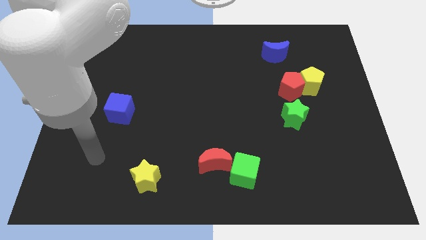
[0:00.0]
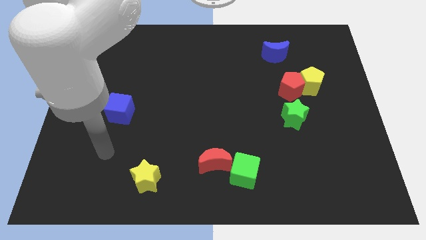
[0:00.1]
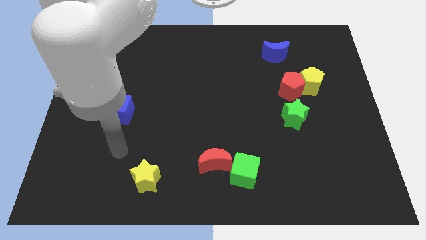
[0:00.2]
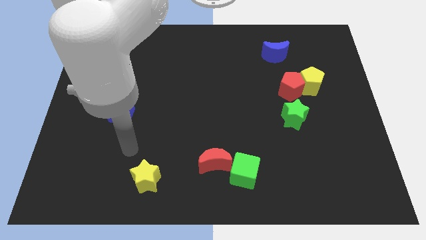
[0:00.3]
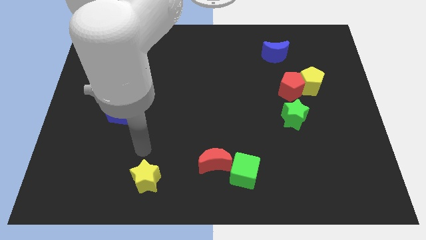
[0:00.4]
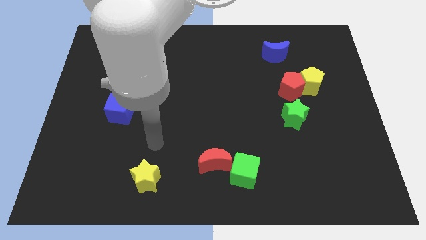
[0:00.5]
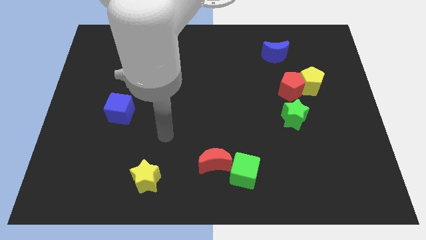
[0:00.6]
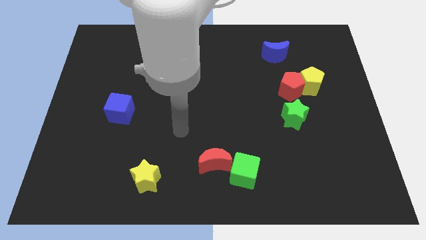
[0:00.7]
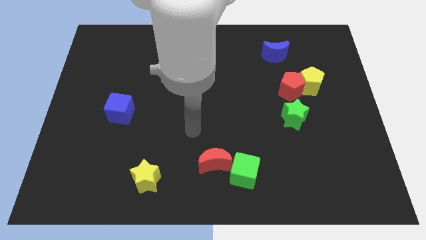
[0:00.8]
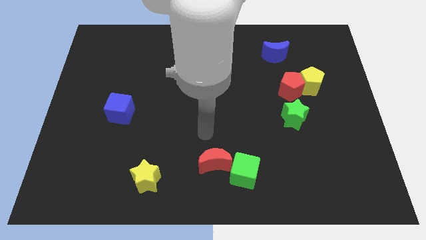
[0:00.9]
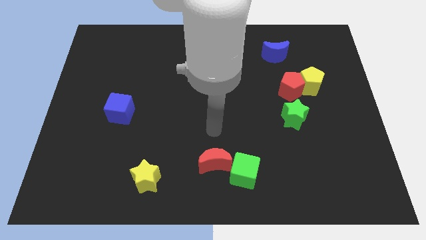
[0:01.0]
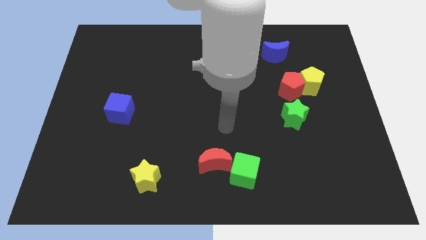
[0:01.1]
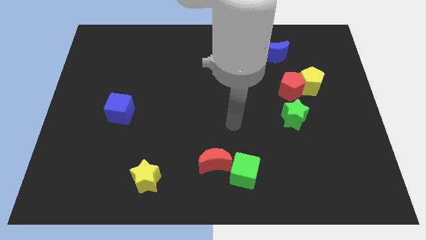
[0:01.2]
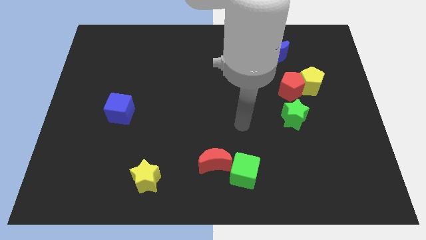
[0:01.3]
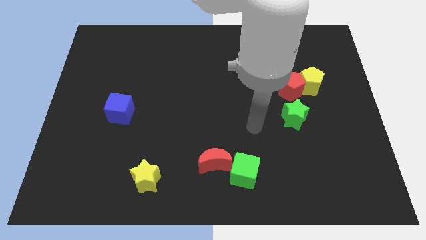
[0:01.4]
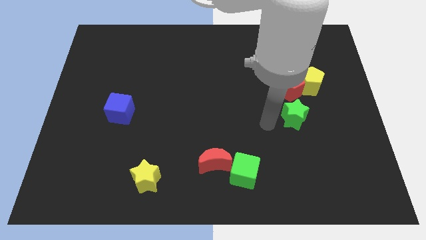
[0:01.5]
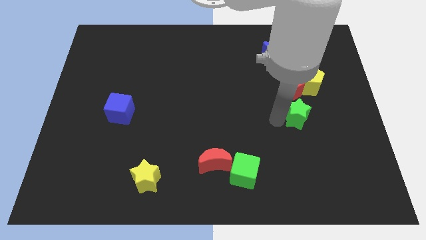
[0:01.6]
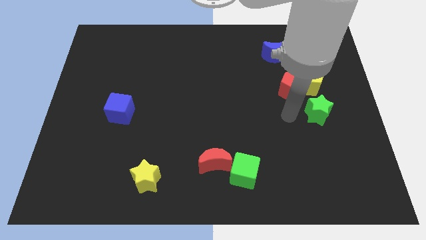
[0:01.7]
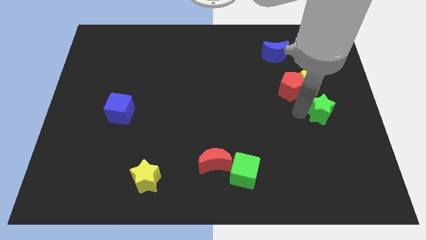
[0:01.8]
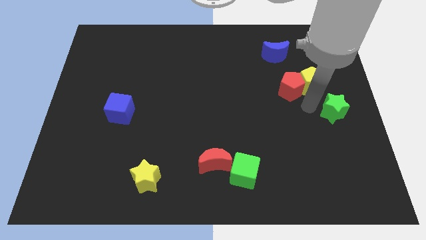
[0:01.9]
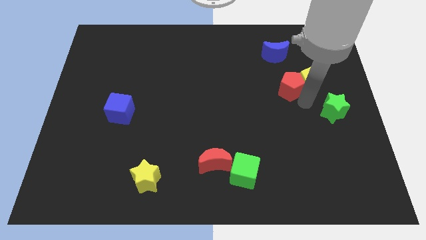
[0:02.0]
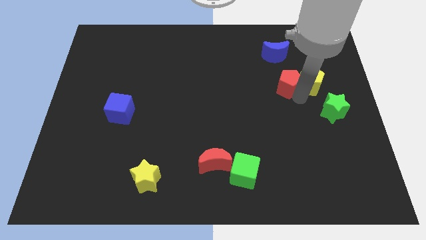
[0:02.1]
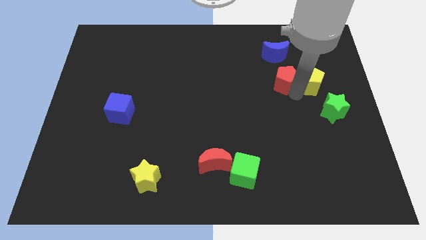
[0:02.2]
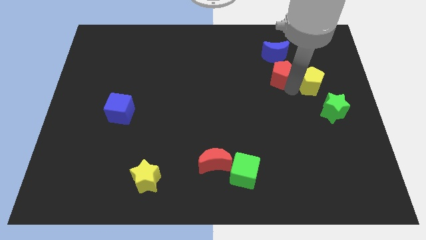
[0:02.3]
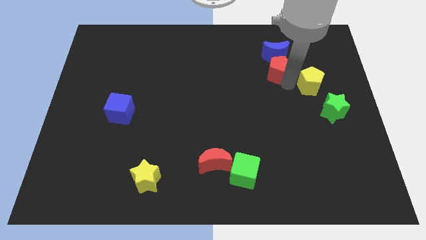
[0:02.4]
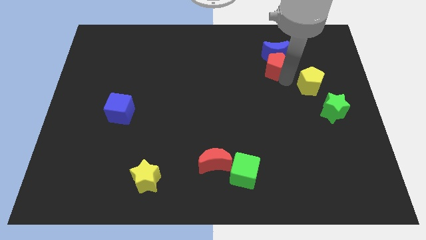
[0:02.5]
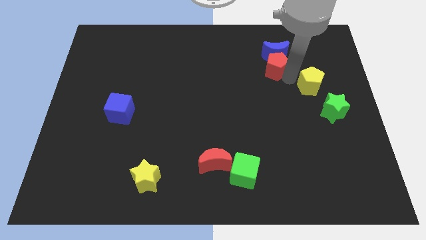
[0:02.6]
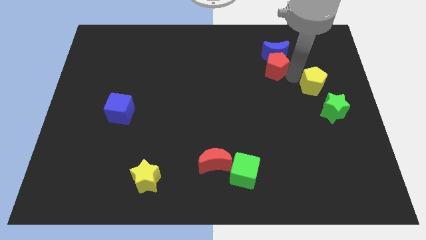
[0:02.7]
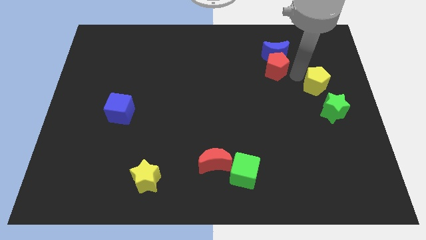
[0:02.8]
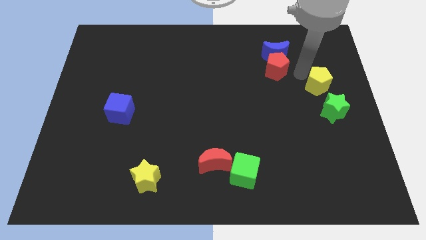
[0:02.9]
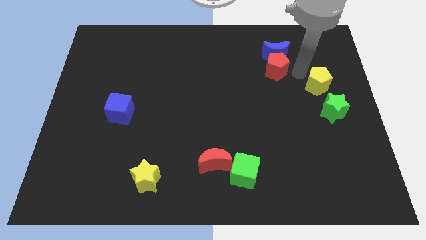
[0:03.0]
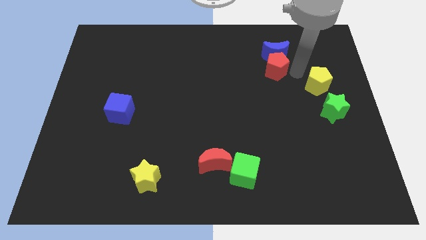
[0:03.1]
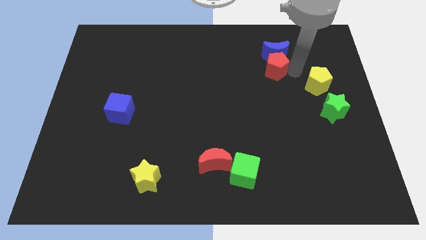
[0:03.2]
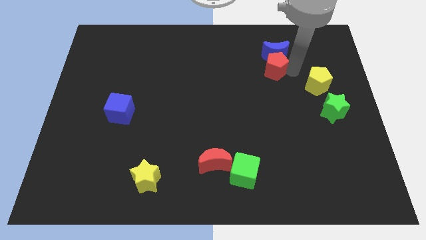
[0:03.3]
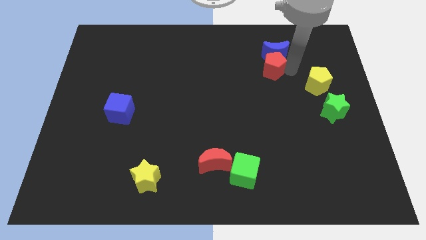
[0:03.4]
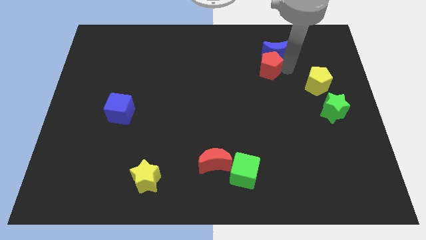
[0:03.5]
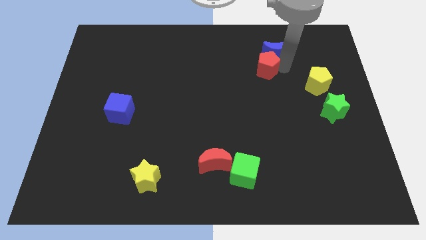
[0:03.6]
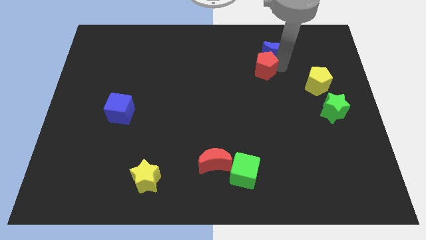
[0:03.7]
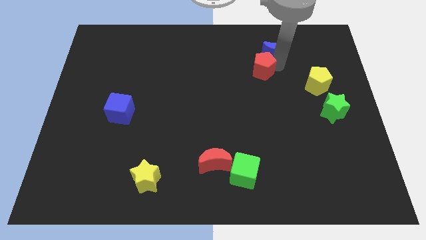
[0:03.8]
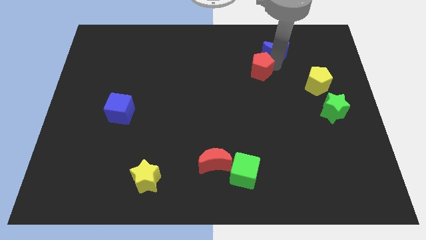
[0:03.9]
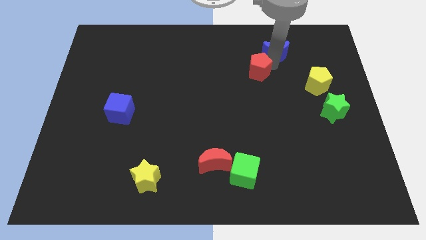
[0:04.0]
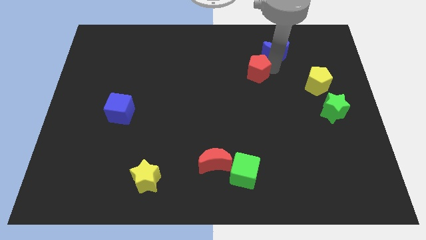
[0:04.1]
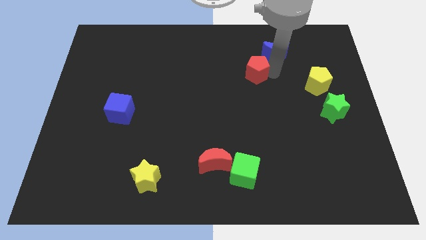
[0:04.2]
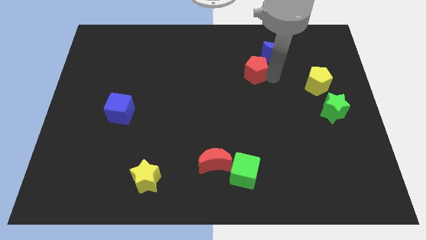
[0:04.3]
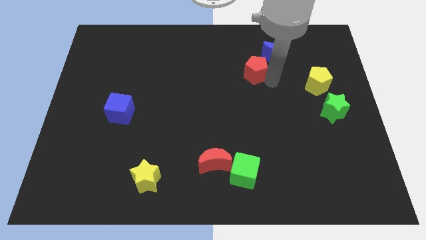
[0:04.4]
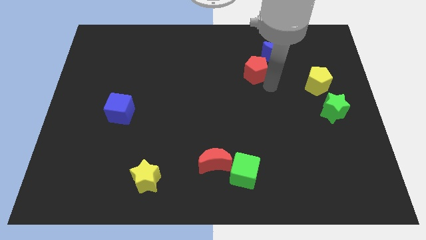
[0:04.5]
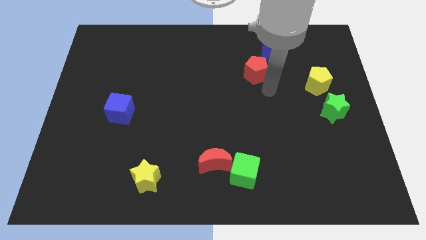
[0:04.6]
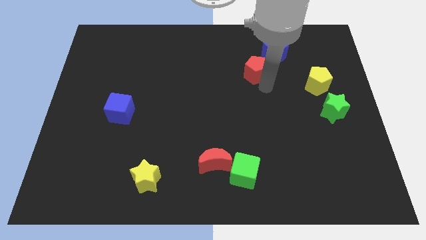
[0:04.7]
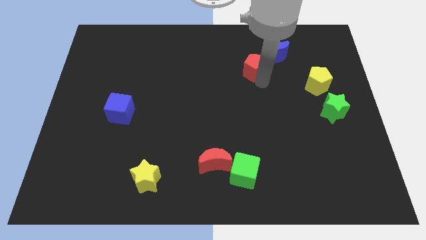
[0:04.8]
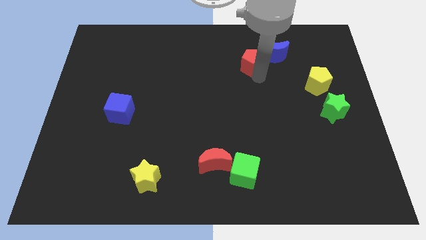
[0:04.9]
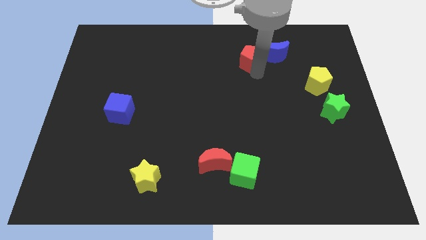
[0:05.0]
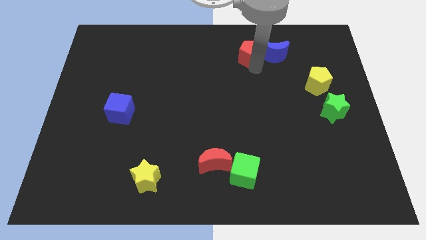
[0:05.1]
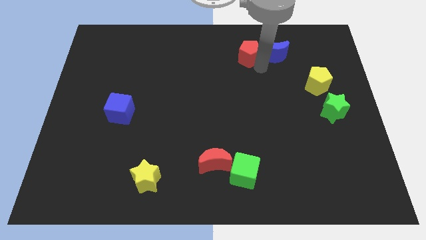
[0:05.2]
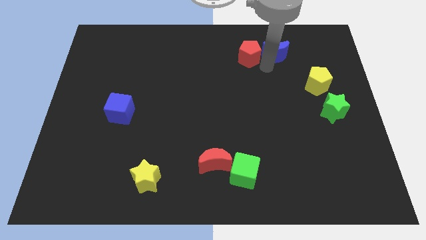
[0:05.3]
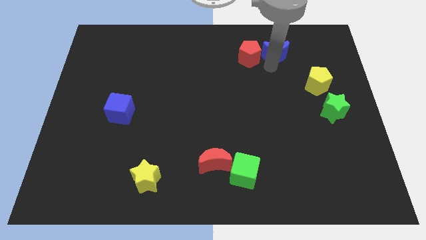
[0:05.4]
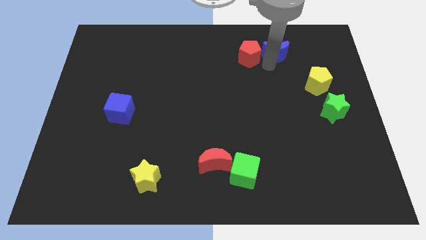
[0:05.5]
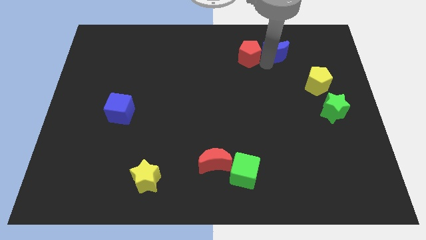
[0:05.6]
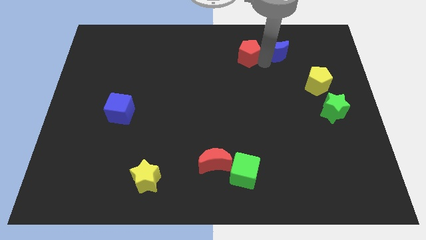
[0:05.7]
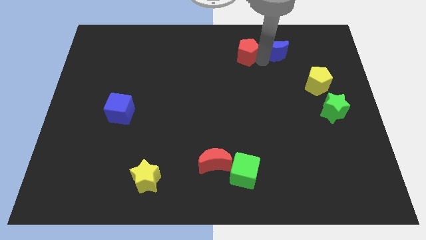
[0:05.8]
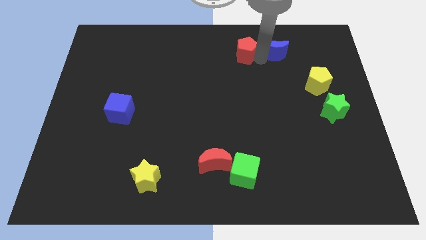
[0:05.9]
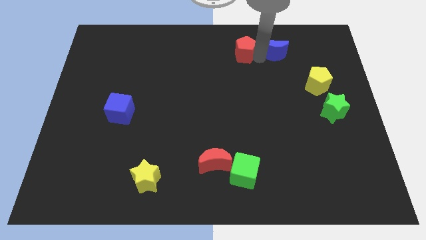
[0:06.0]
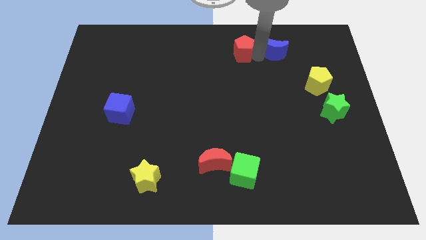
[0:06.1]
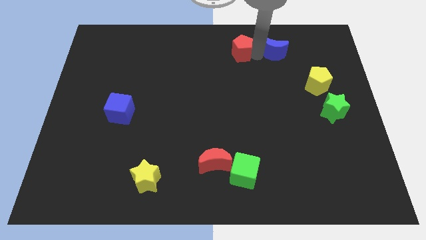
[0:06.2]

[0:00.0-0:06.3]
put the red pentagon to the top
